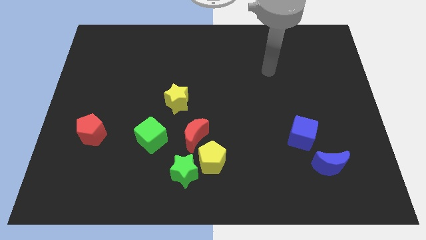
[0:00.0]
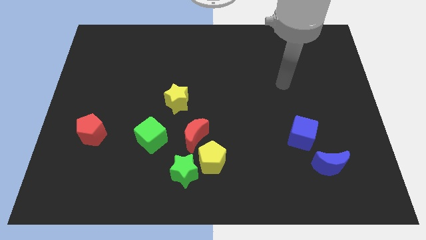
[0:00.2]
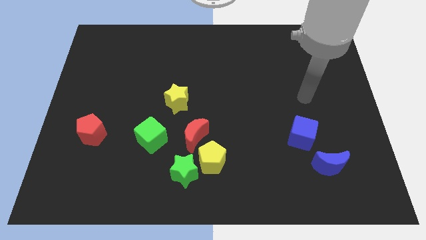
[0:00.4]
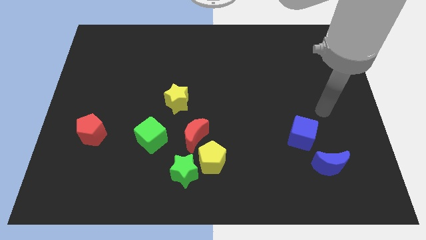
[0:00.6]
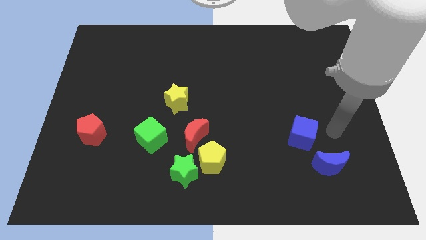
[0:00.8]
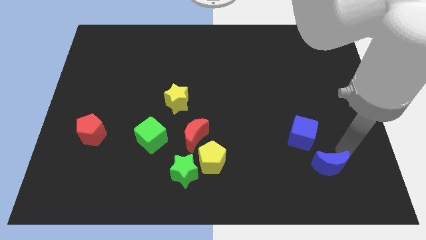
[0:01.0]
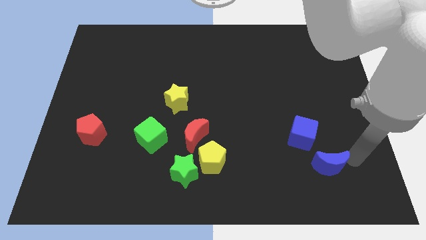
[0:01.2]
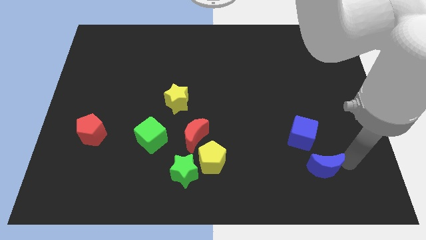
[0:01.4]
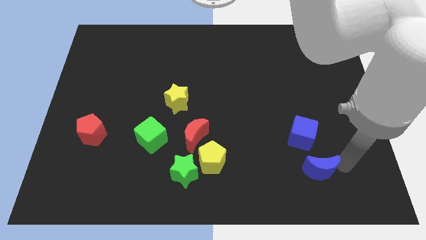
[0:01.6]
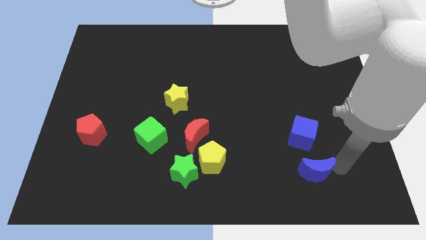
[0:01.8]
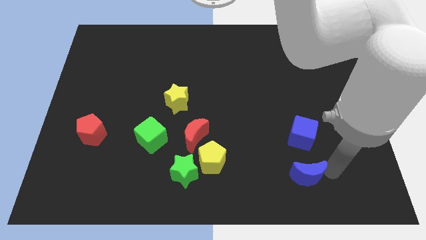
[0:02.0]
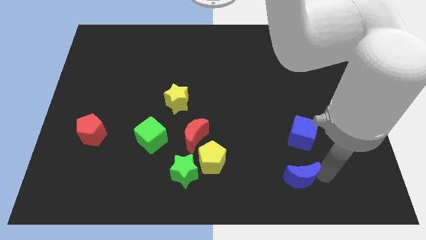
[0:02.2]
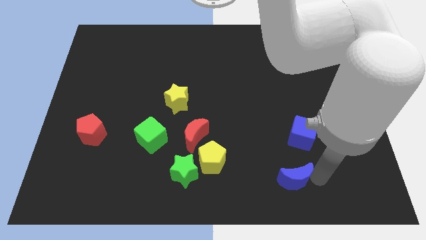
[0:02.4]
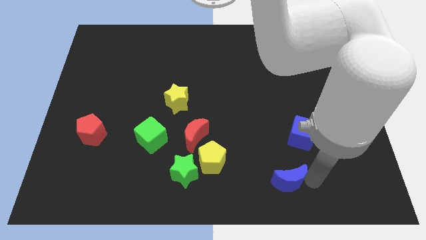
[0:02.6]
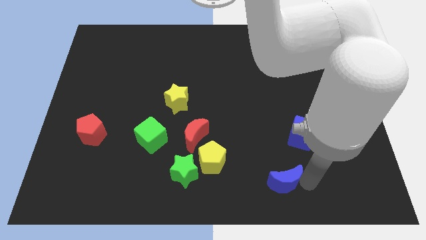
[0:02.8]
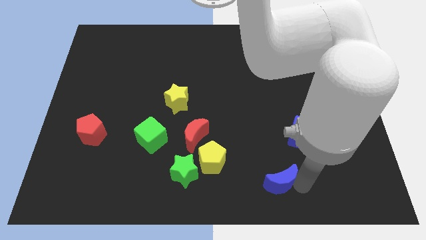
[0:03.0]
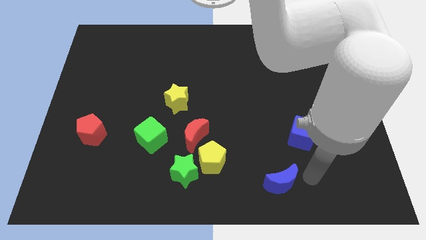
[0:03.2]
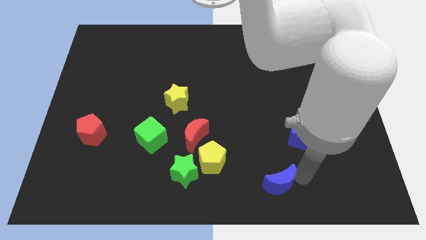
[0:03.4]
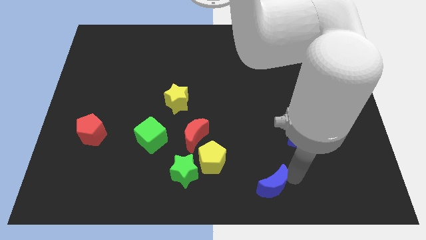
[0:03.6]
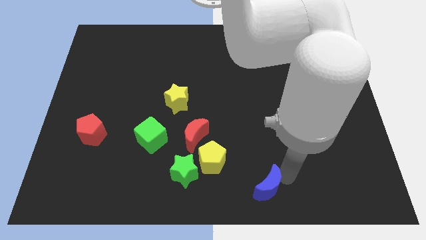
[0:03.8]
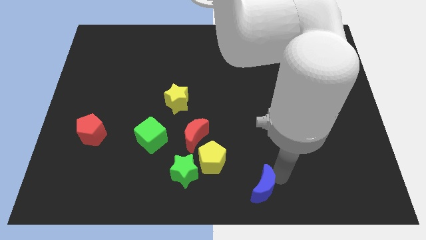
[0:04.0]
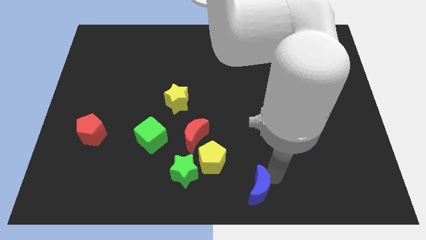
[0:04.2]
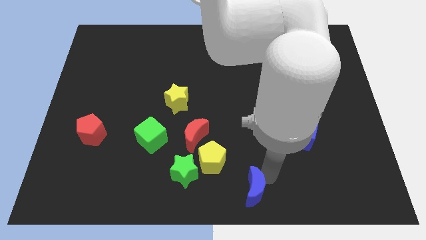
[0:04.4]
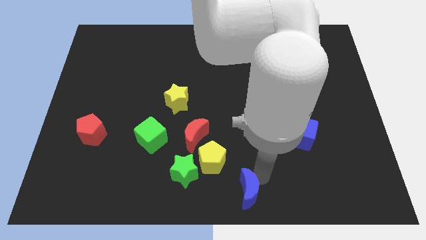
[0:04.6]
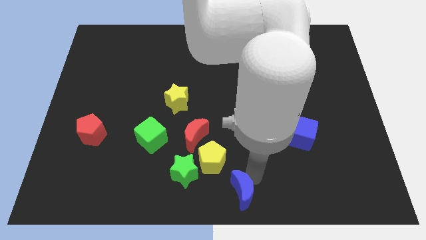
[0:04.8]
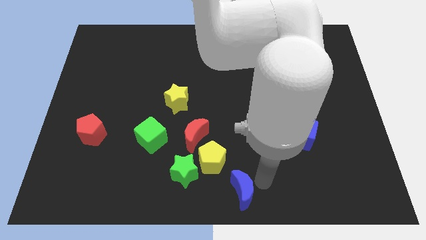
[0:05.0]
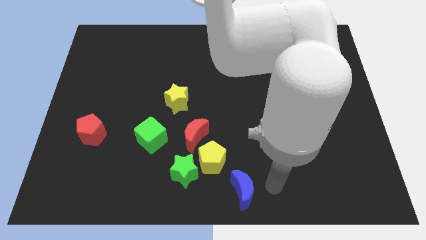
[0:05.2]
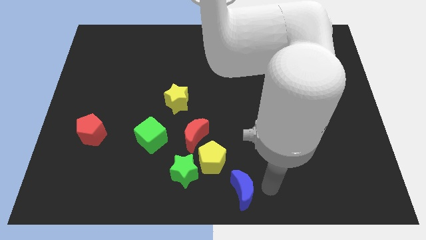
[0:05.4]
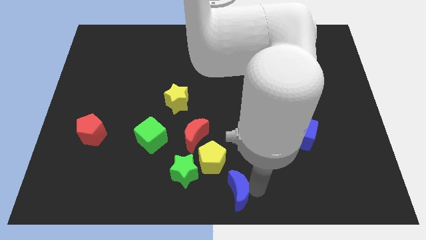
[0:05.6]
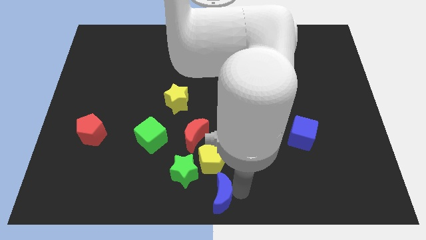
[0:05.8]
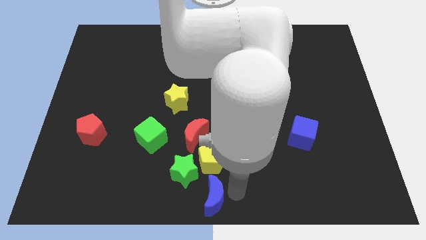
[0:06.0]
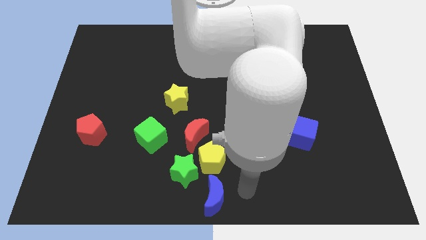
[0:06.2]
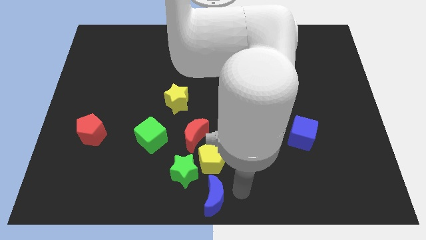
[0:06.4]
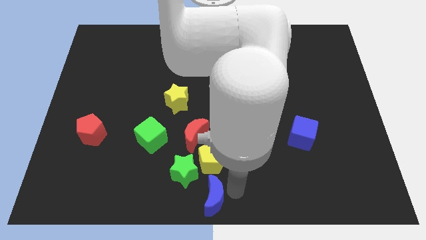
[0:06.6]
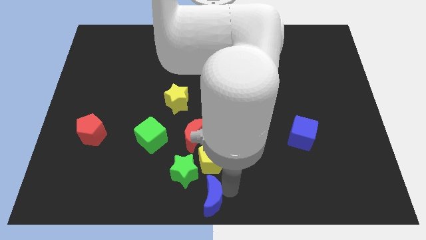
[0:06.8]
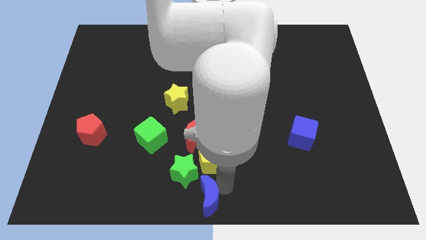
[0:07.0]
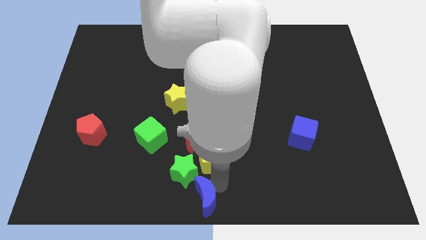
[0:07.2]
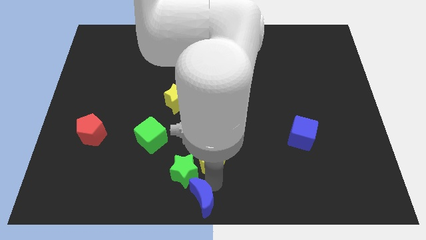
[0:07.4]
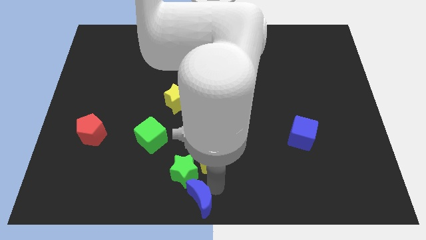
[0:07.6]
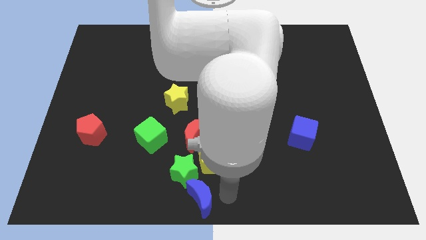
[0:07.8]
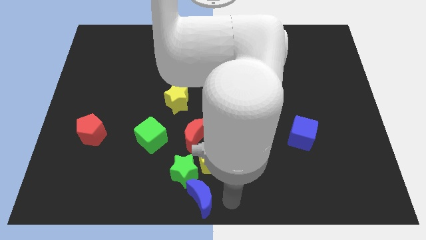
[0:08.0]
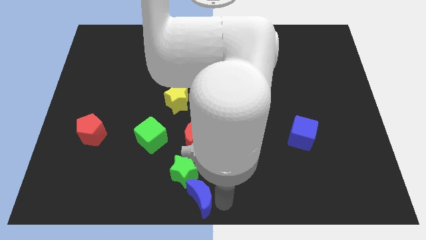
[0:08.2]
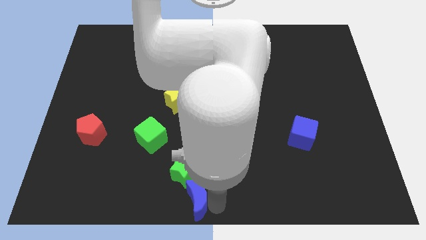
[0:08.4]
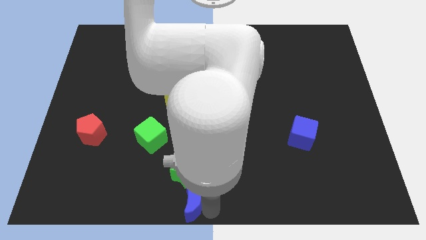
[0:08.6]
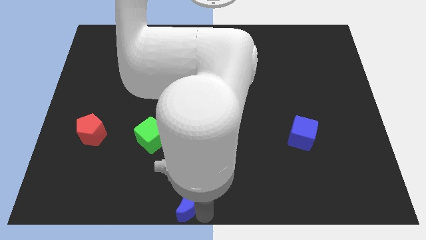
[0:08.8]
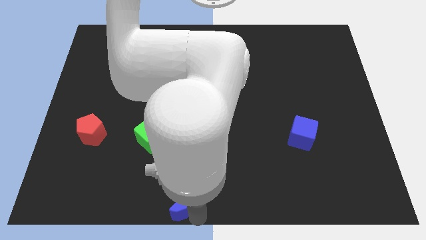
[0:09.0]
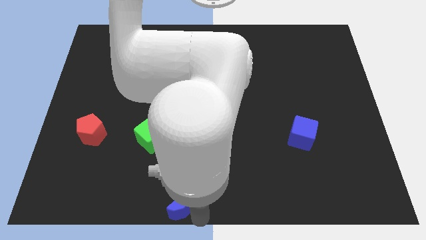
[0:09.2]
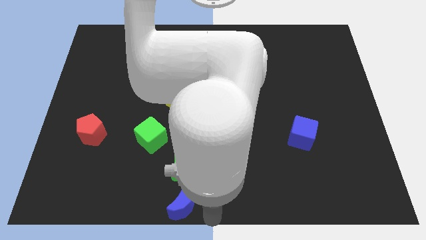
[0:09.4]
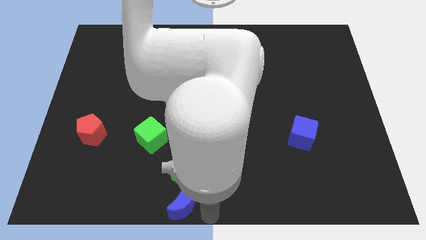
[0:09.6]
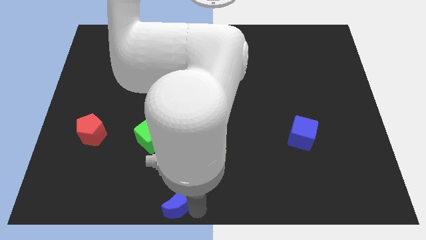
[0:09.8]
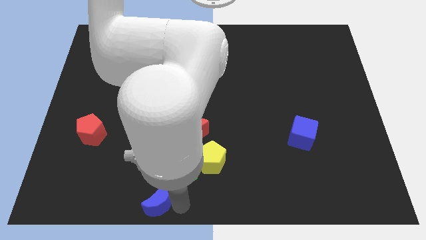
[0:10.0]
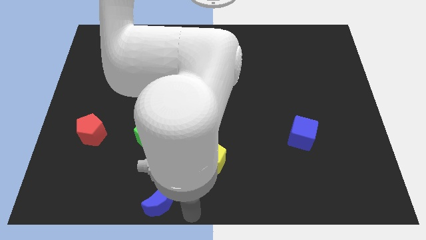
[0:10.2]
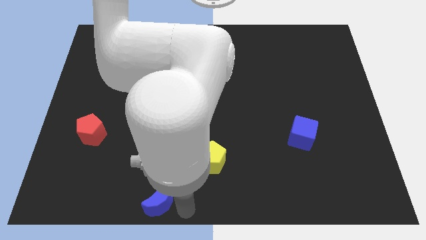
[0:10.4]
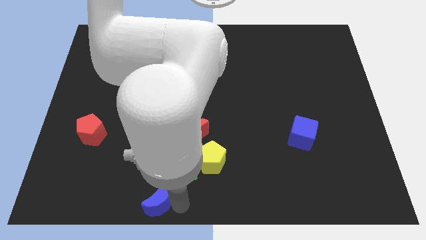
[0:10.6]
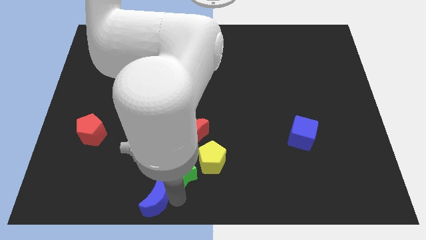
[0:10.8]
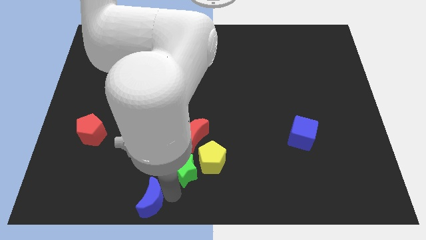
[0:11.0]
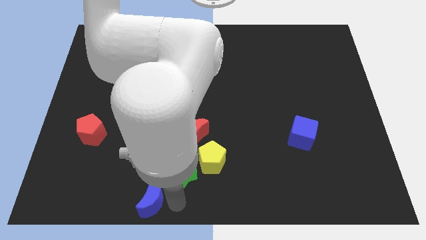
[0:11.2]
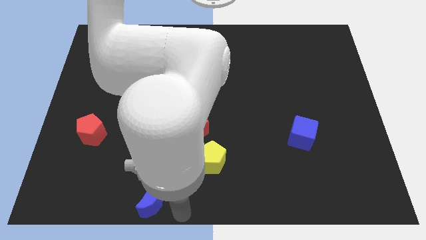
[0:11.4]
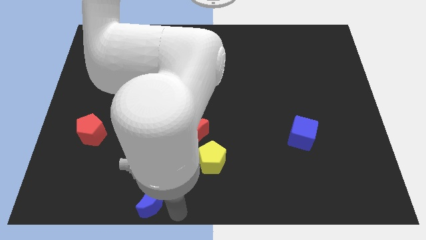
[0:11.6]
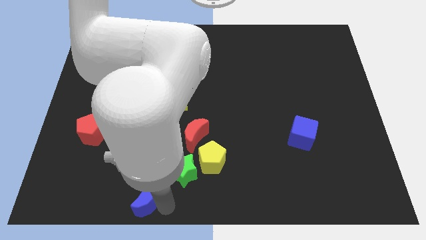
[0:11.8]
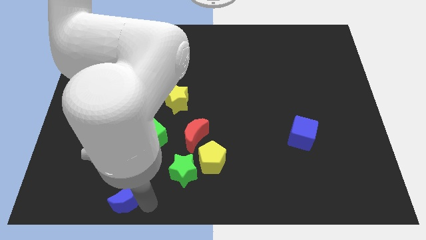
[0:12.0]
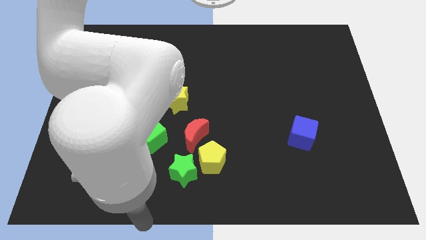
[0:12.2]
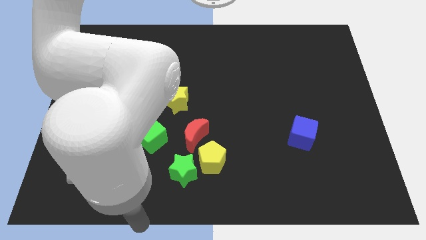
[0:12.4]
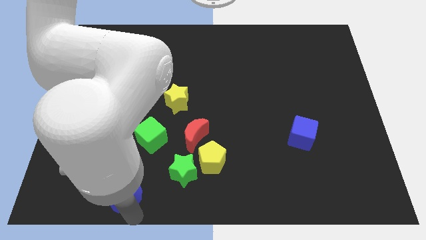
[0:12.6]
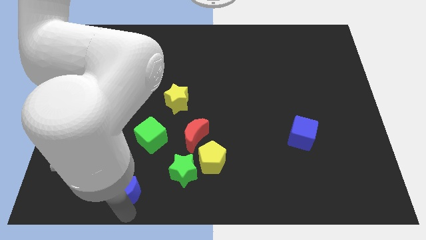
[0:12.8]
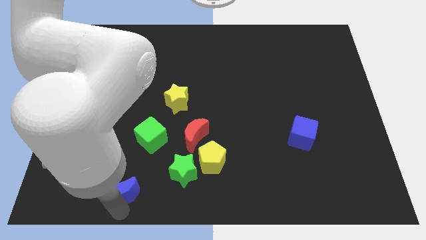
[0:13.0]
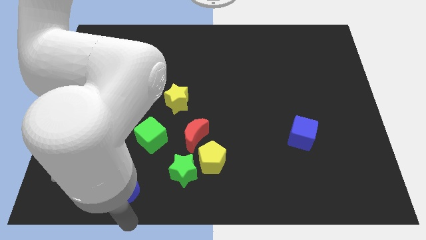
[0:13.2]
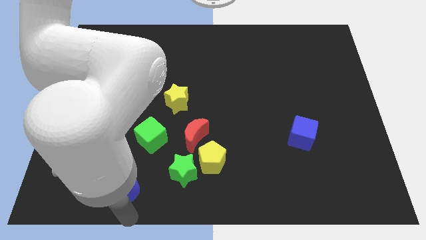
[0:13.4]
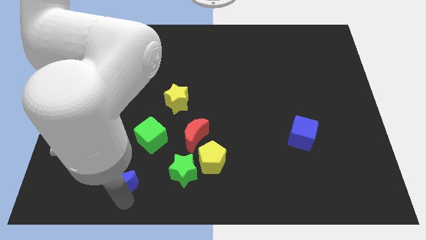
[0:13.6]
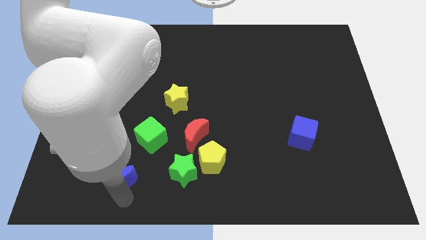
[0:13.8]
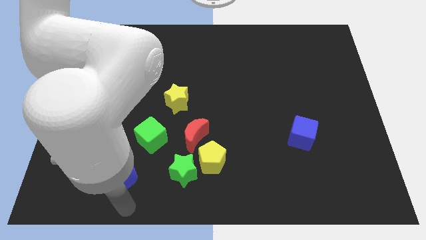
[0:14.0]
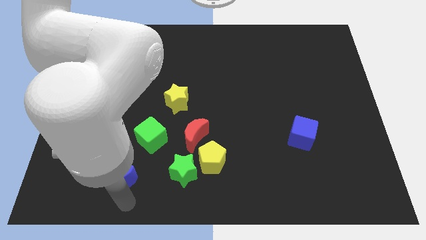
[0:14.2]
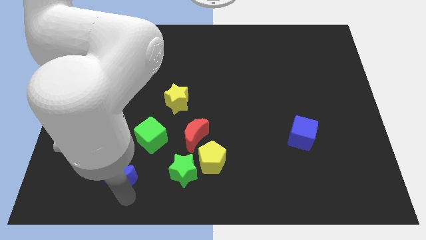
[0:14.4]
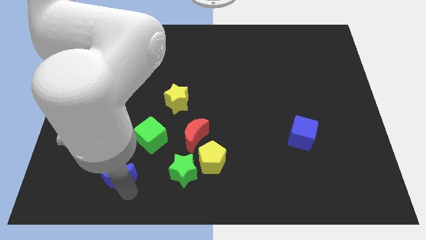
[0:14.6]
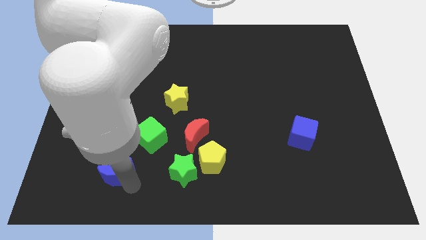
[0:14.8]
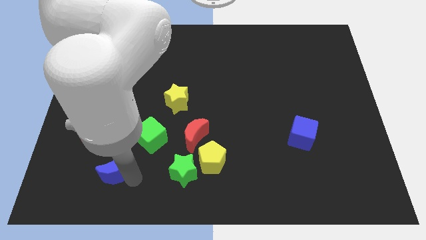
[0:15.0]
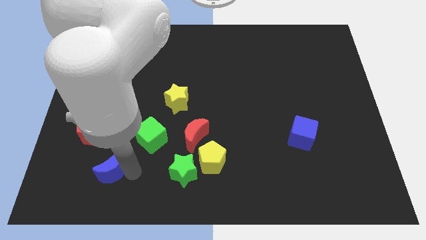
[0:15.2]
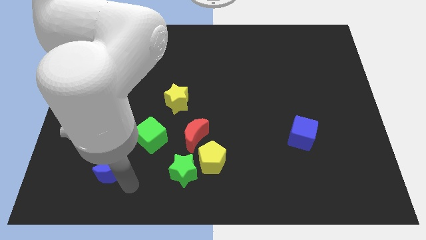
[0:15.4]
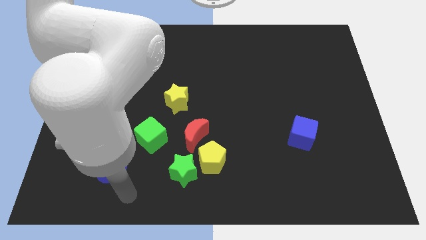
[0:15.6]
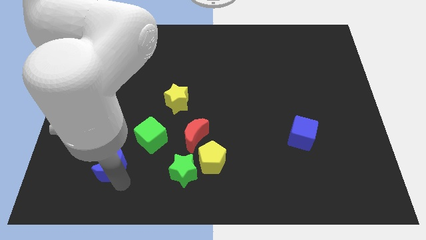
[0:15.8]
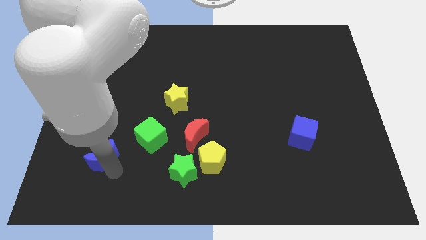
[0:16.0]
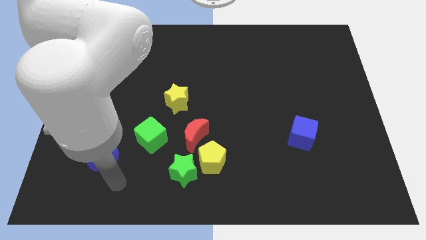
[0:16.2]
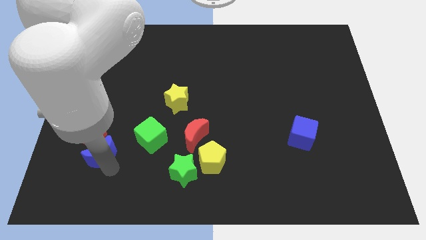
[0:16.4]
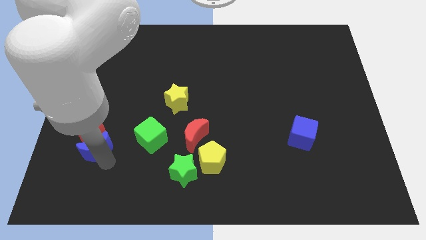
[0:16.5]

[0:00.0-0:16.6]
move the blue moon towards the red pentagon
